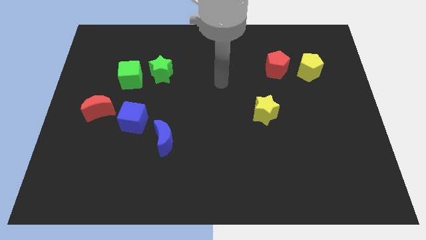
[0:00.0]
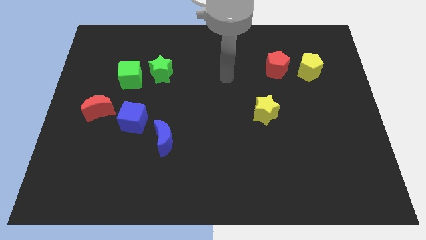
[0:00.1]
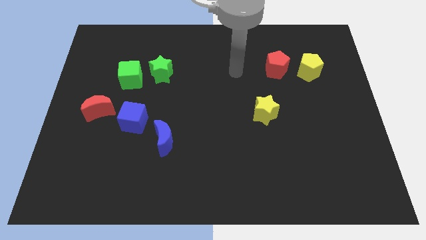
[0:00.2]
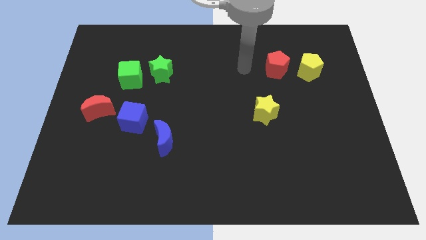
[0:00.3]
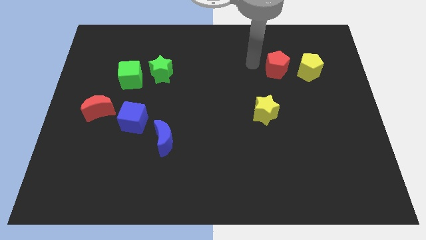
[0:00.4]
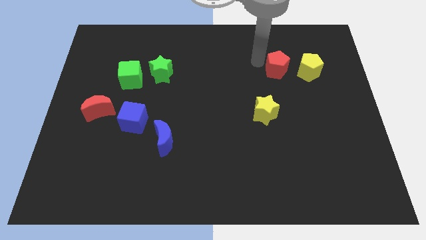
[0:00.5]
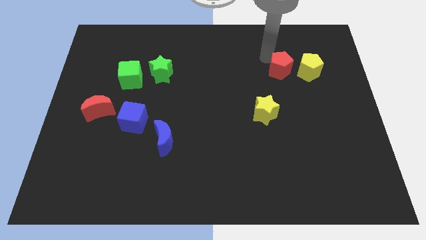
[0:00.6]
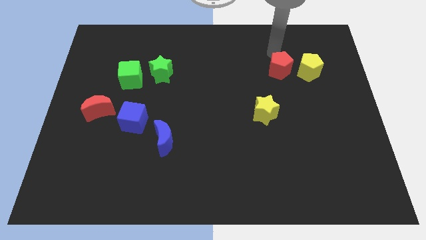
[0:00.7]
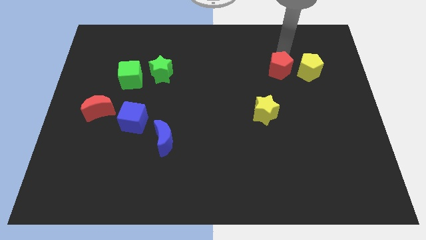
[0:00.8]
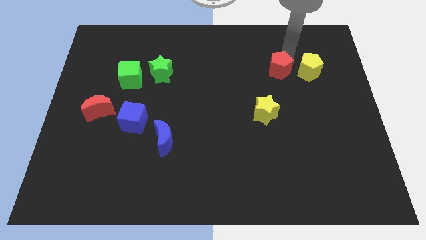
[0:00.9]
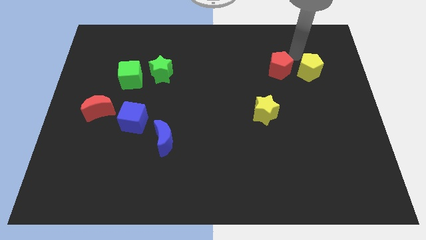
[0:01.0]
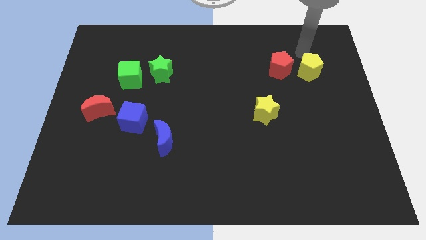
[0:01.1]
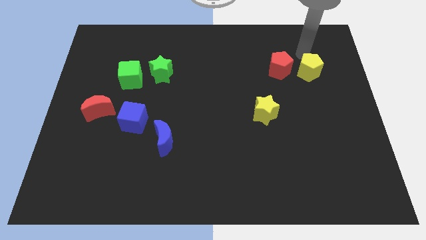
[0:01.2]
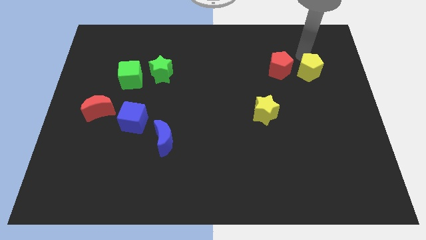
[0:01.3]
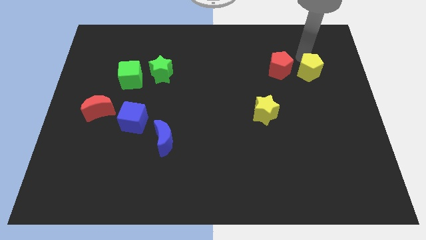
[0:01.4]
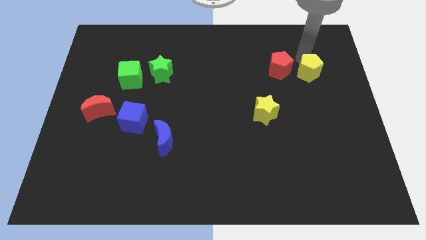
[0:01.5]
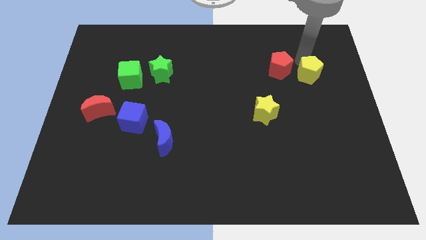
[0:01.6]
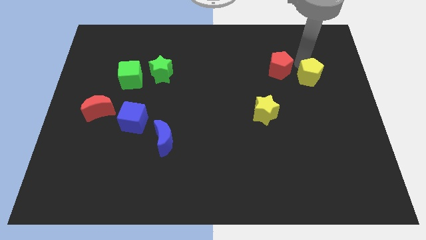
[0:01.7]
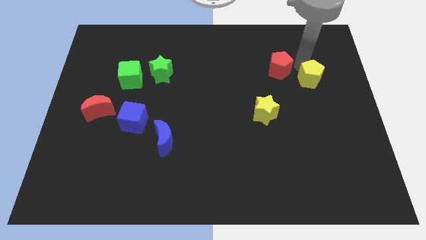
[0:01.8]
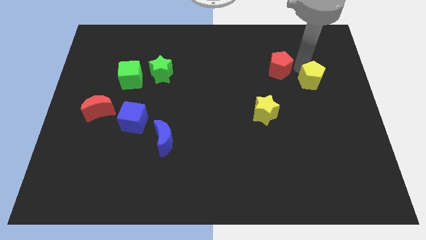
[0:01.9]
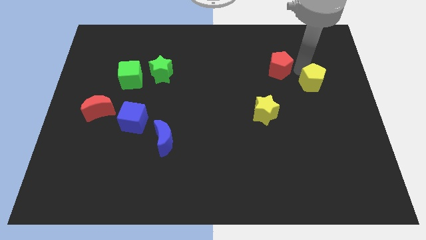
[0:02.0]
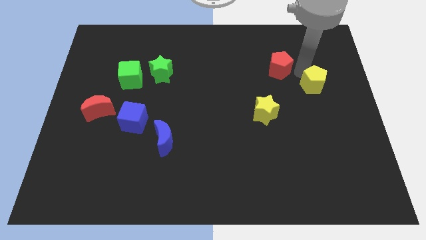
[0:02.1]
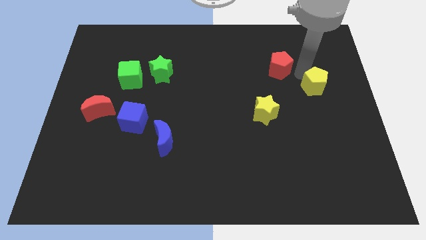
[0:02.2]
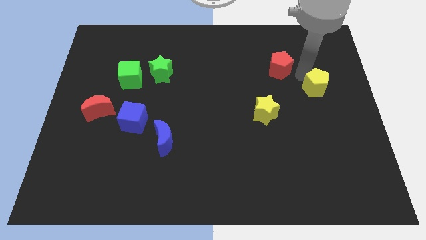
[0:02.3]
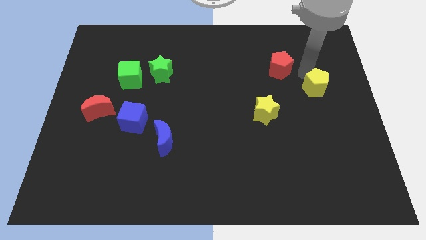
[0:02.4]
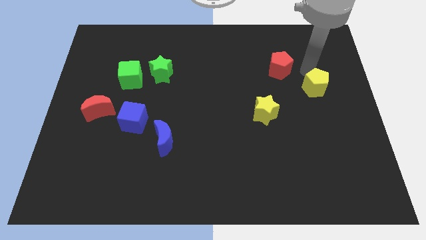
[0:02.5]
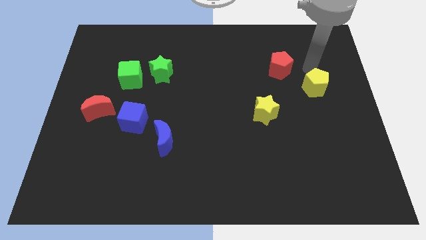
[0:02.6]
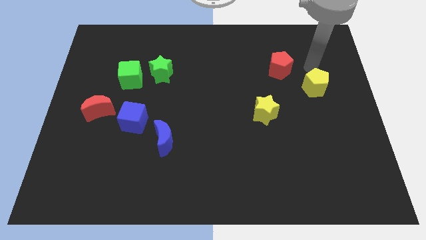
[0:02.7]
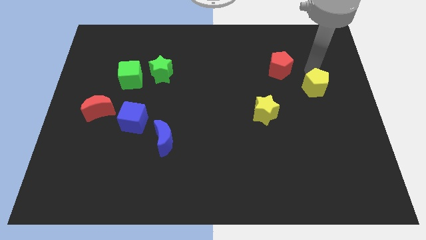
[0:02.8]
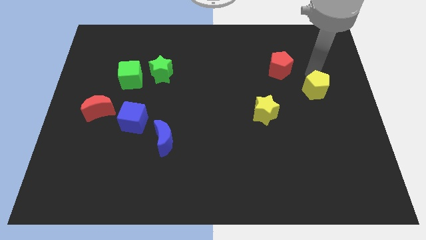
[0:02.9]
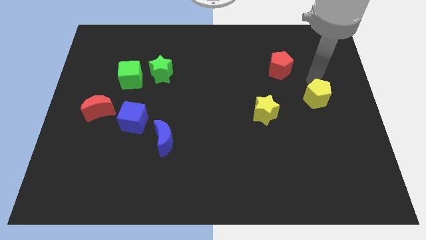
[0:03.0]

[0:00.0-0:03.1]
slide the yellow pentagon downwards a little bit

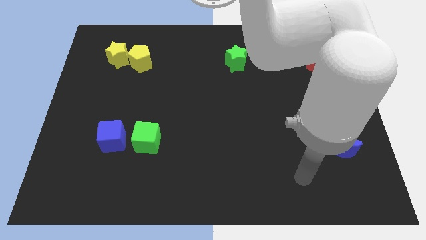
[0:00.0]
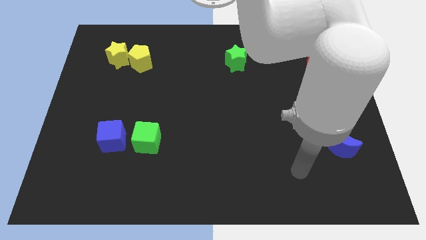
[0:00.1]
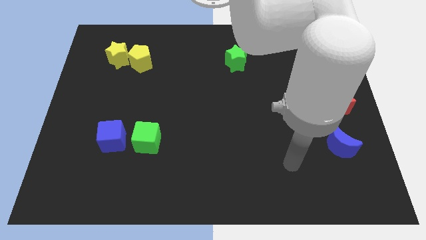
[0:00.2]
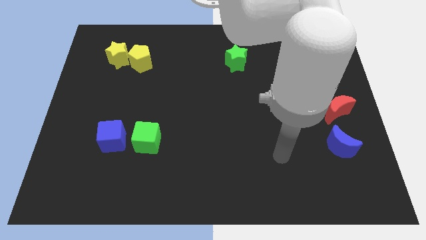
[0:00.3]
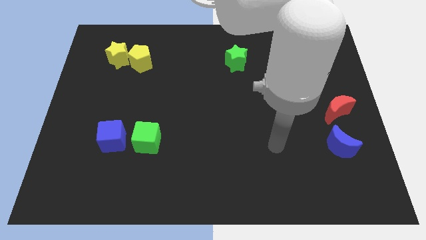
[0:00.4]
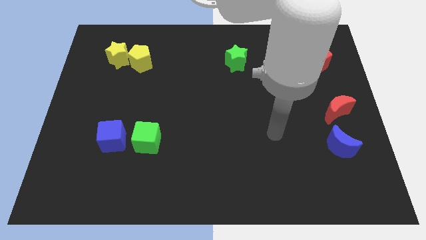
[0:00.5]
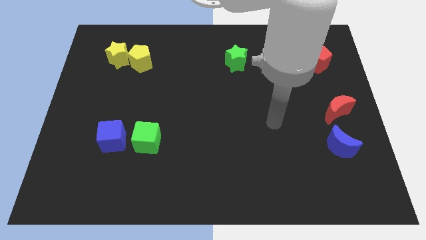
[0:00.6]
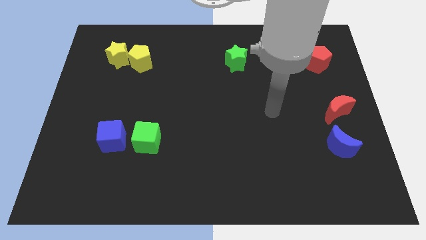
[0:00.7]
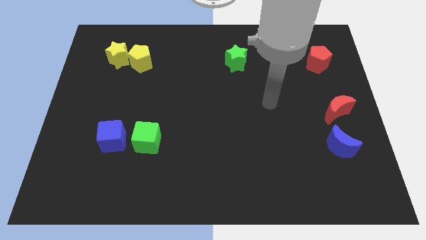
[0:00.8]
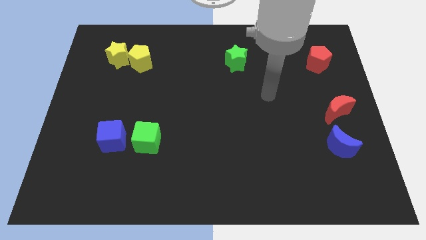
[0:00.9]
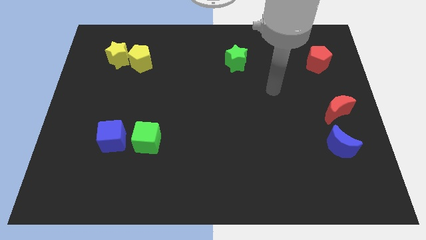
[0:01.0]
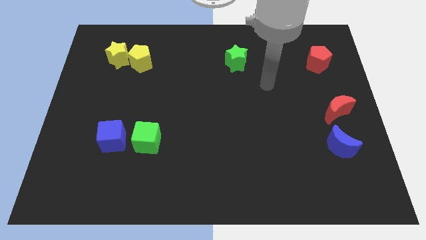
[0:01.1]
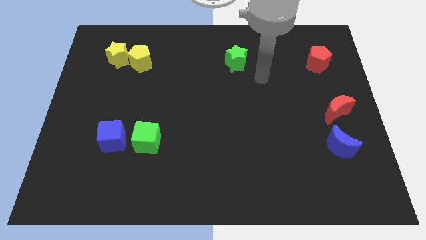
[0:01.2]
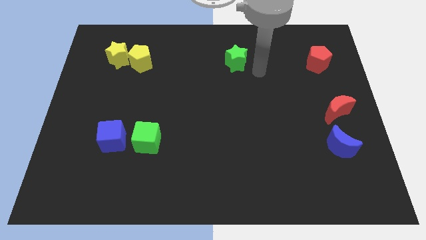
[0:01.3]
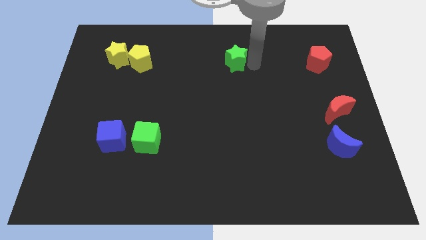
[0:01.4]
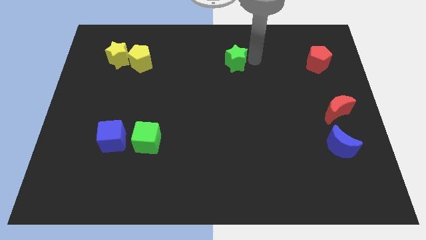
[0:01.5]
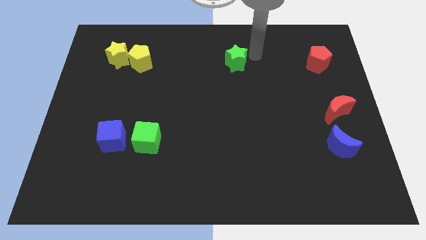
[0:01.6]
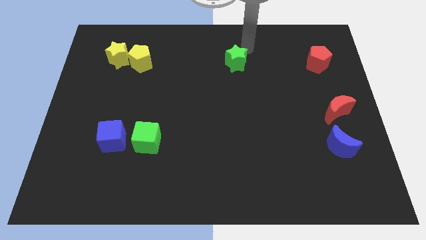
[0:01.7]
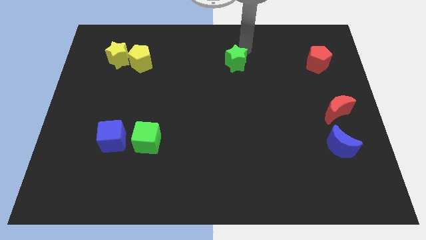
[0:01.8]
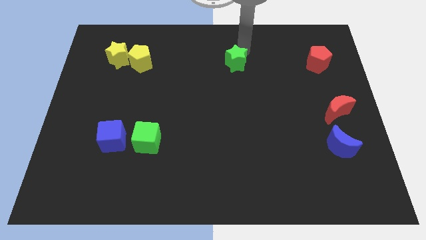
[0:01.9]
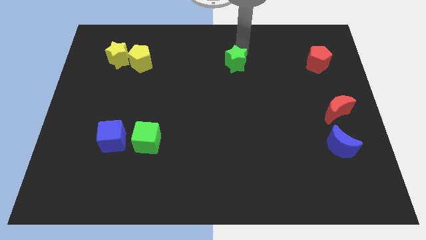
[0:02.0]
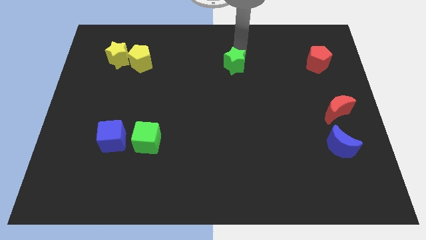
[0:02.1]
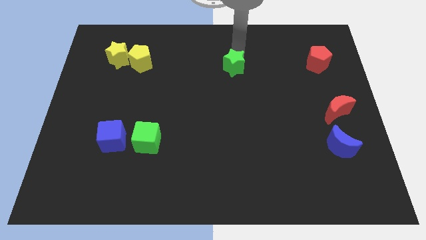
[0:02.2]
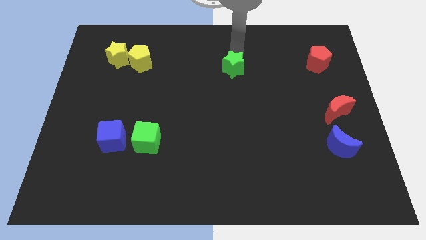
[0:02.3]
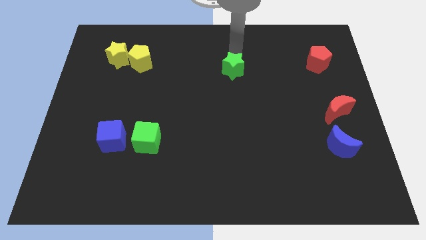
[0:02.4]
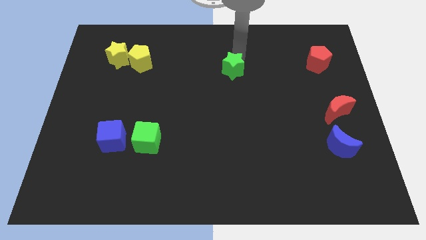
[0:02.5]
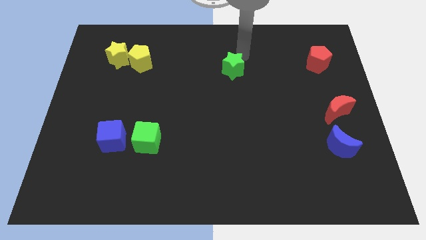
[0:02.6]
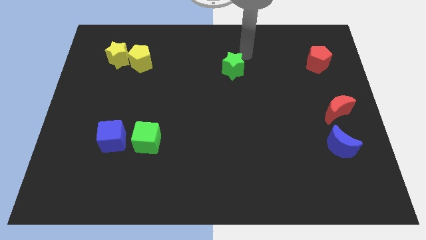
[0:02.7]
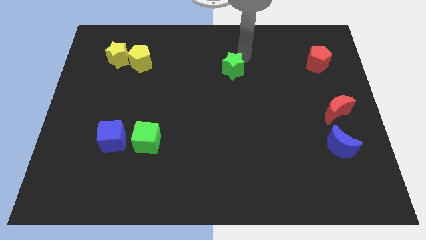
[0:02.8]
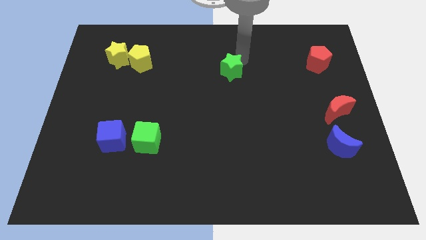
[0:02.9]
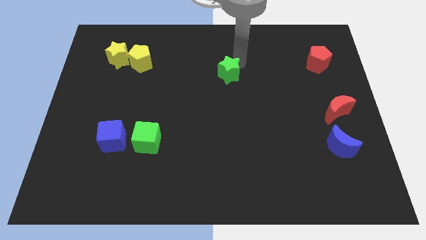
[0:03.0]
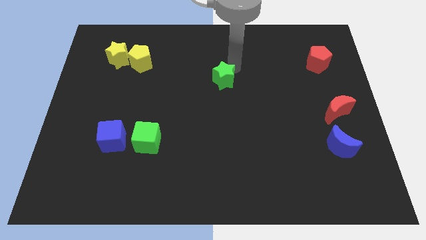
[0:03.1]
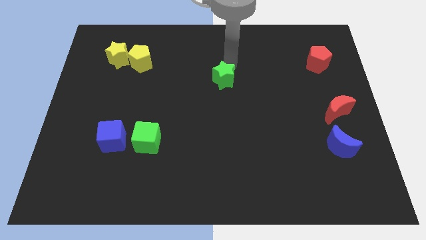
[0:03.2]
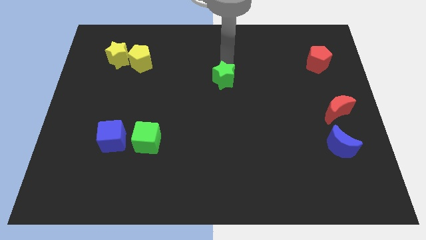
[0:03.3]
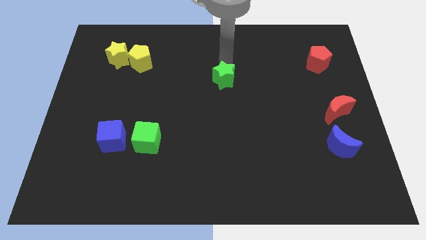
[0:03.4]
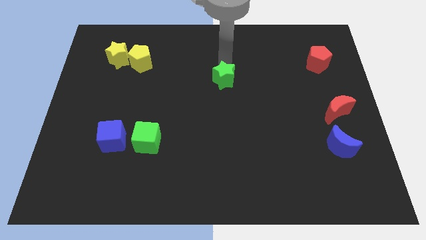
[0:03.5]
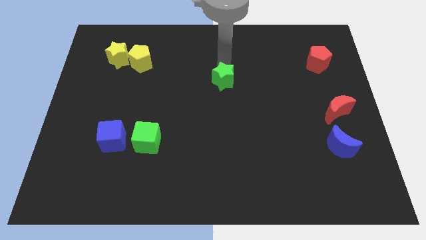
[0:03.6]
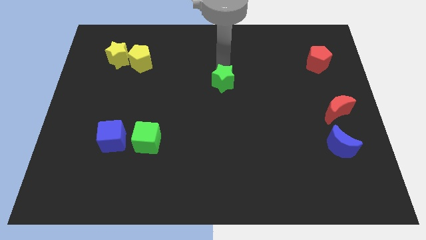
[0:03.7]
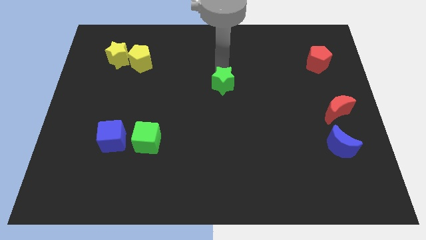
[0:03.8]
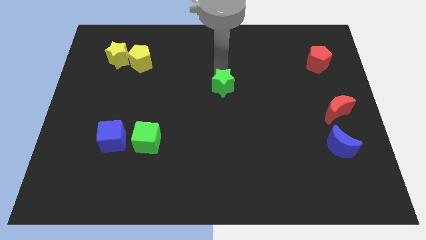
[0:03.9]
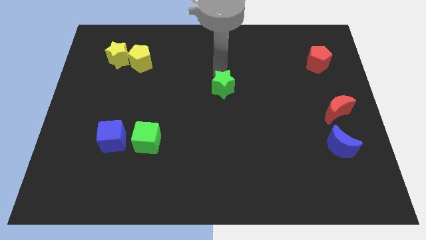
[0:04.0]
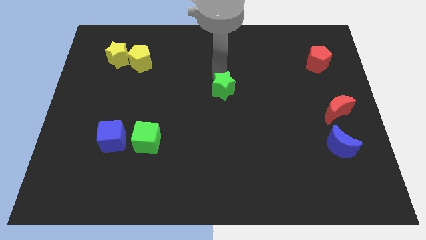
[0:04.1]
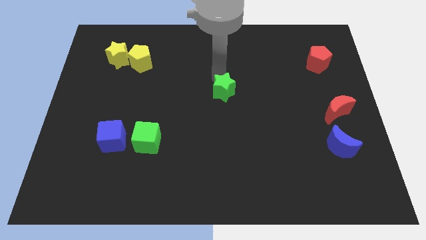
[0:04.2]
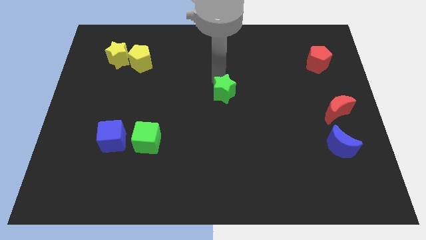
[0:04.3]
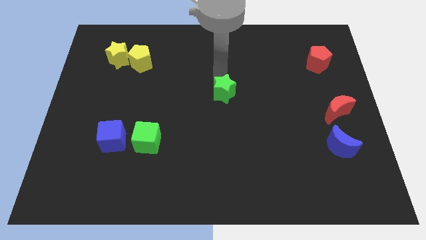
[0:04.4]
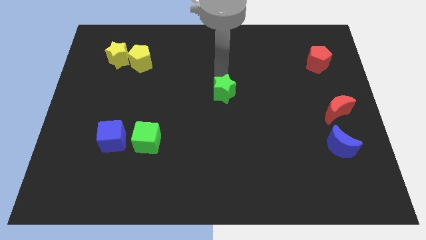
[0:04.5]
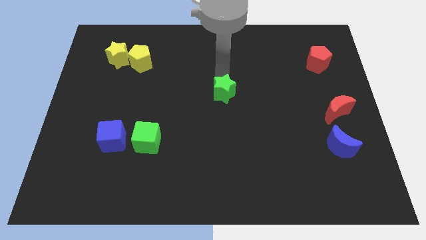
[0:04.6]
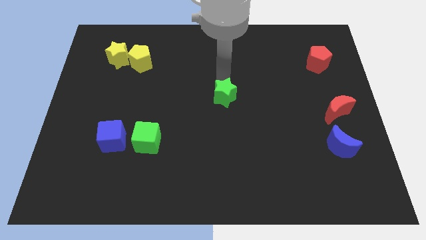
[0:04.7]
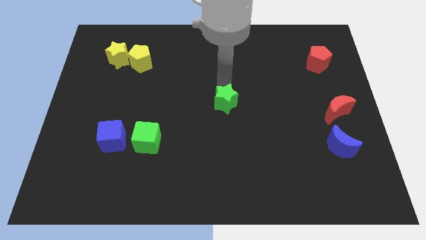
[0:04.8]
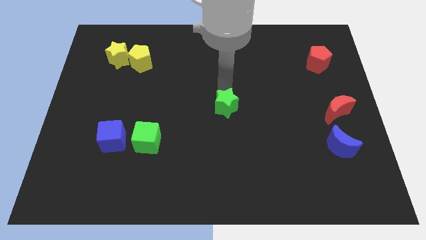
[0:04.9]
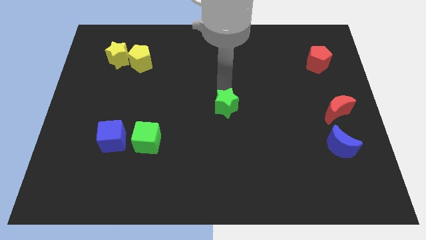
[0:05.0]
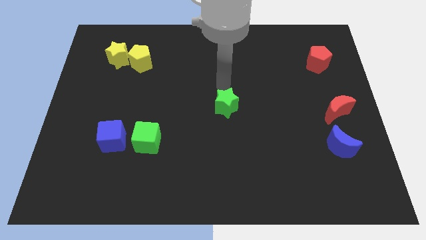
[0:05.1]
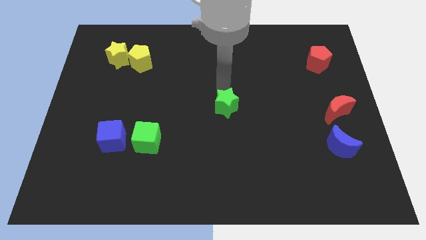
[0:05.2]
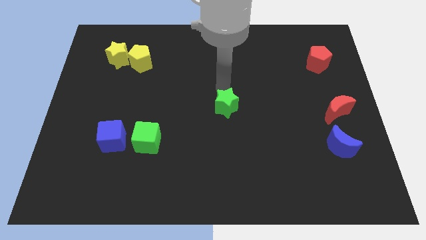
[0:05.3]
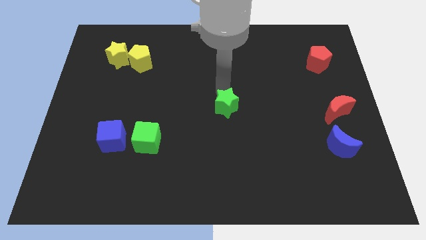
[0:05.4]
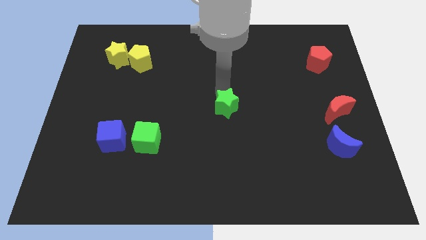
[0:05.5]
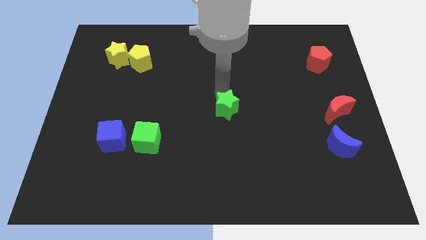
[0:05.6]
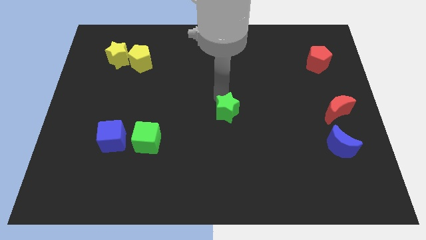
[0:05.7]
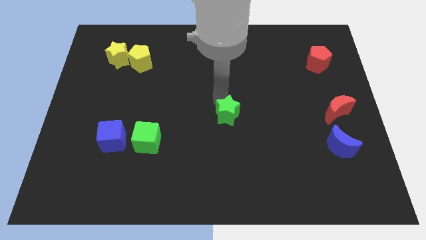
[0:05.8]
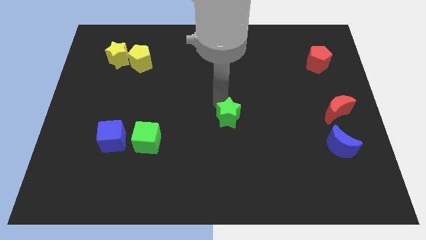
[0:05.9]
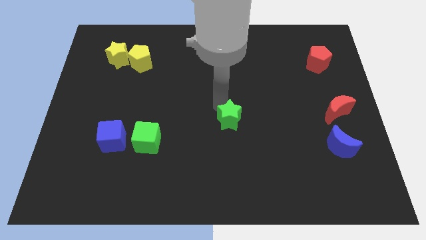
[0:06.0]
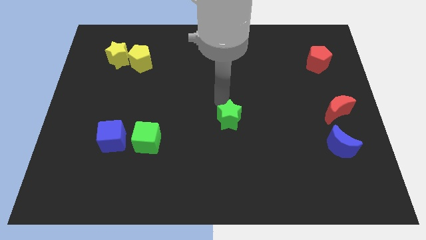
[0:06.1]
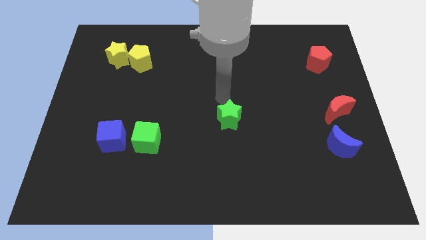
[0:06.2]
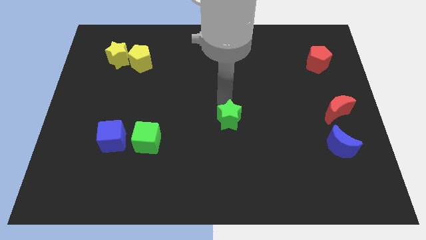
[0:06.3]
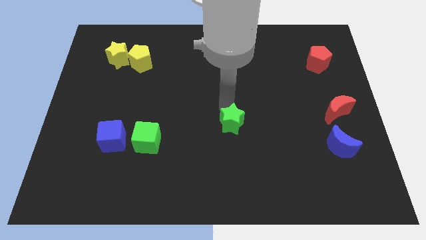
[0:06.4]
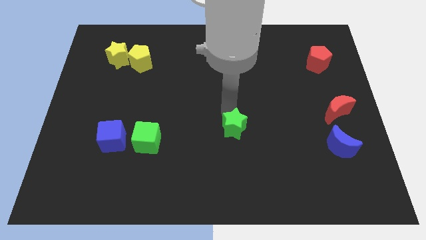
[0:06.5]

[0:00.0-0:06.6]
move the green star down
